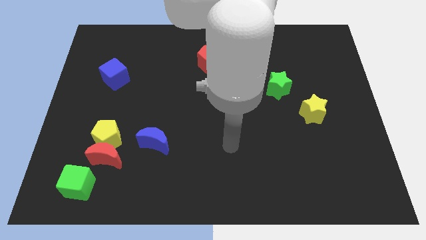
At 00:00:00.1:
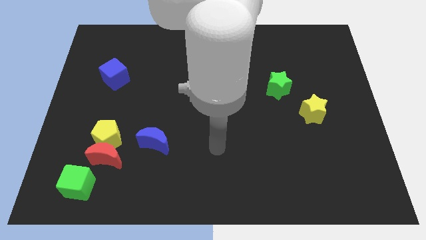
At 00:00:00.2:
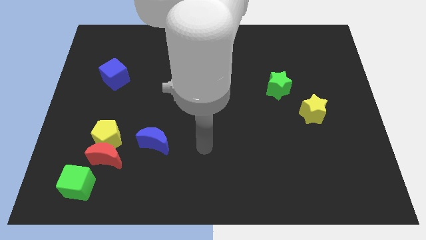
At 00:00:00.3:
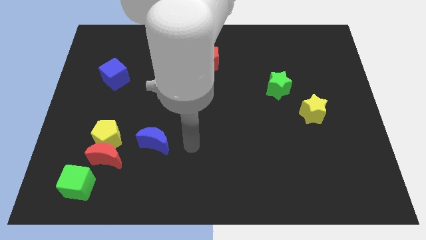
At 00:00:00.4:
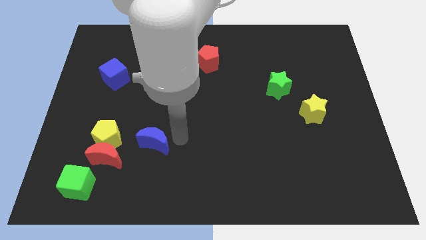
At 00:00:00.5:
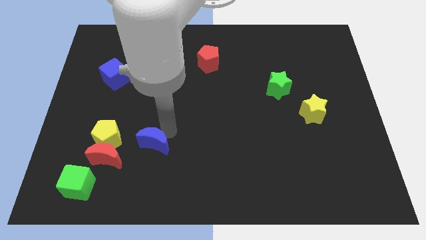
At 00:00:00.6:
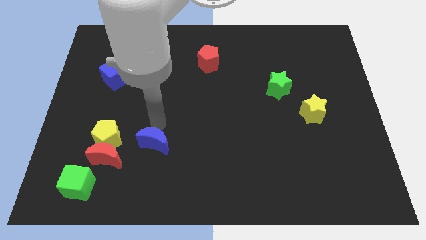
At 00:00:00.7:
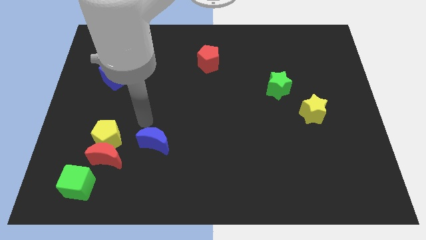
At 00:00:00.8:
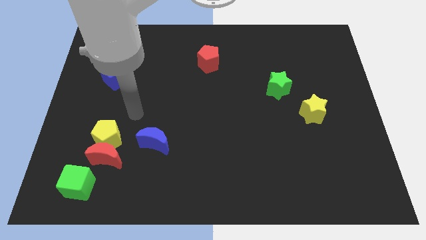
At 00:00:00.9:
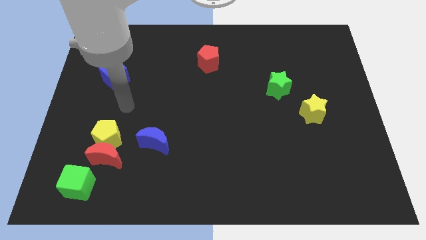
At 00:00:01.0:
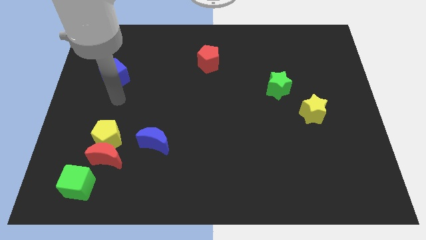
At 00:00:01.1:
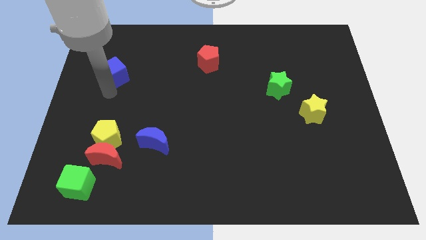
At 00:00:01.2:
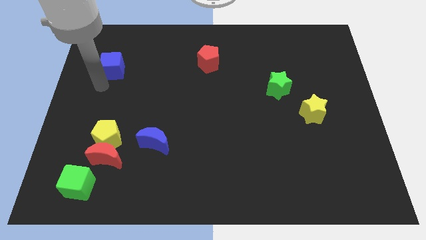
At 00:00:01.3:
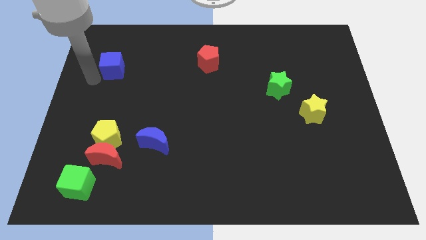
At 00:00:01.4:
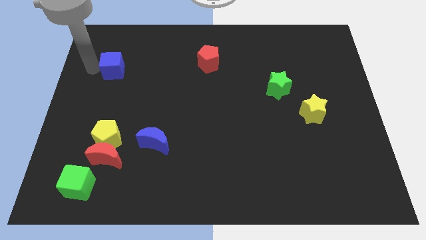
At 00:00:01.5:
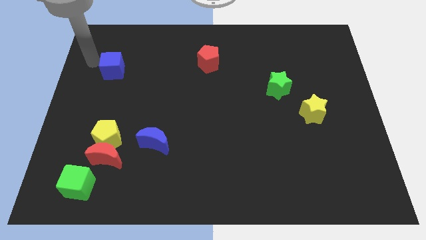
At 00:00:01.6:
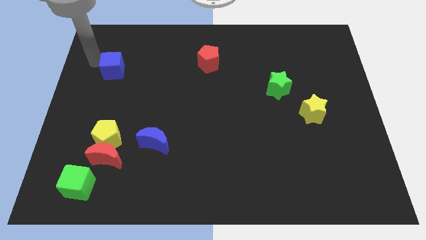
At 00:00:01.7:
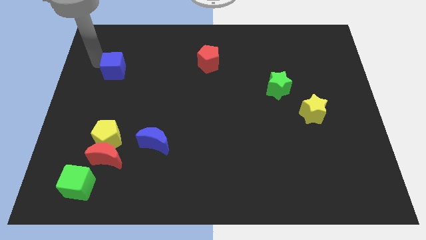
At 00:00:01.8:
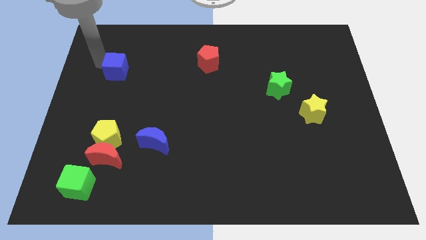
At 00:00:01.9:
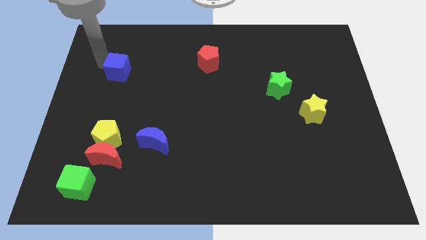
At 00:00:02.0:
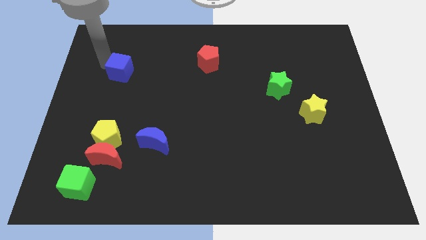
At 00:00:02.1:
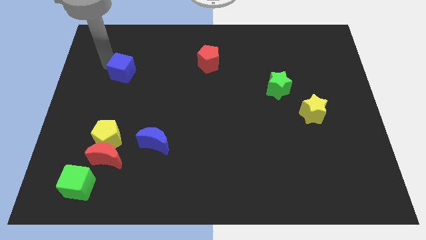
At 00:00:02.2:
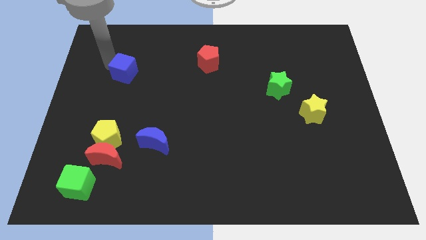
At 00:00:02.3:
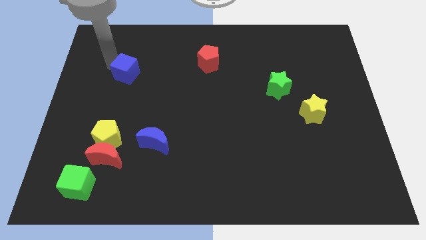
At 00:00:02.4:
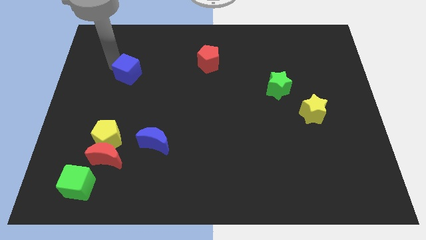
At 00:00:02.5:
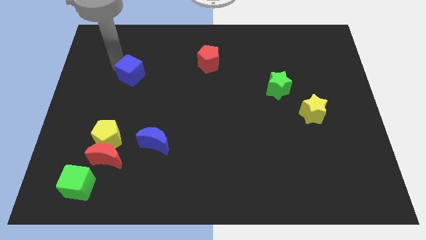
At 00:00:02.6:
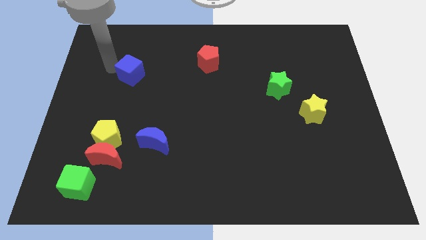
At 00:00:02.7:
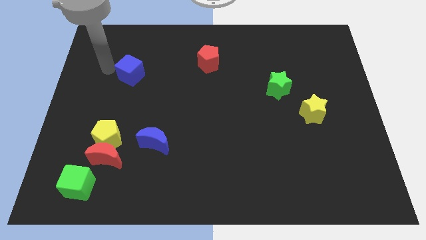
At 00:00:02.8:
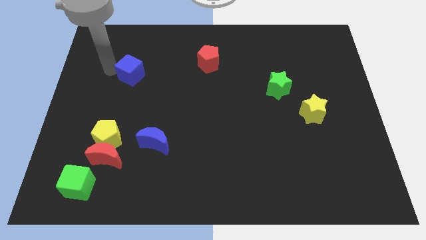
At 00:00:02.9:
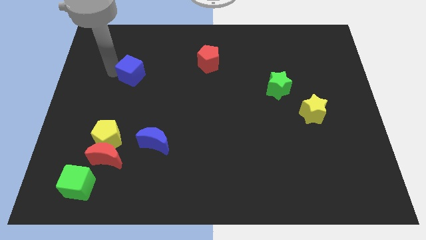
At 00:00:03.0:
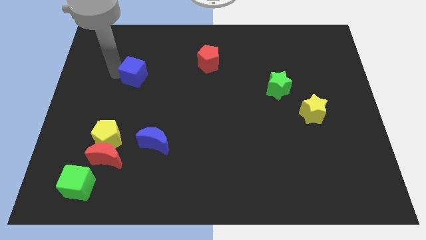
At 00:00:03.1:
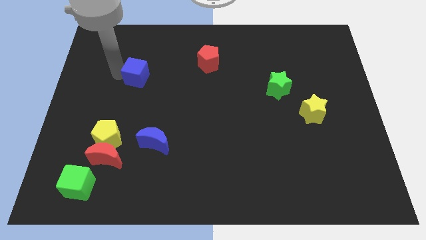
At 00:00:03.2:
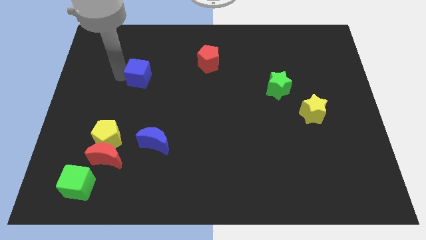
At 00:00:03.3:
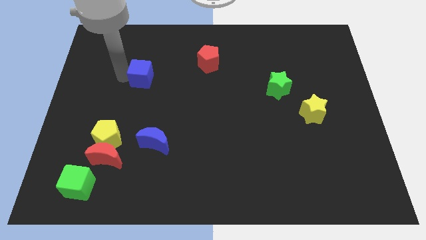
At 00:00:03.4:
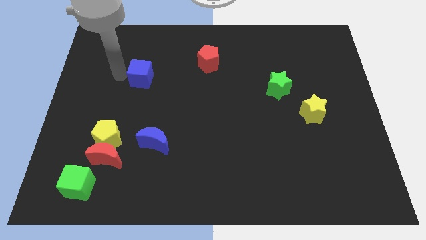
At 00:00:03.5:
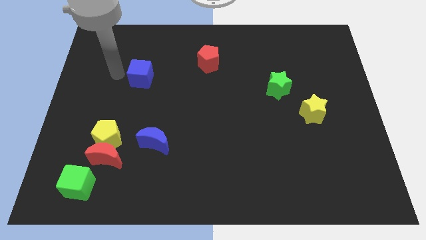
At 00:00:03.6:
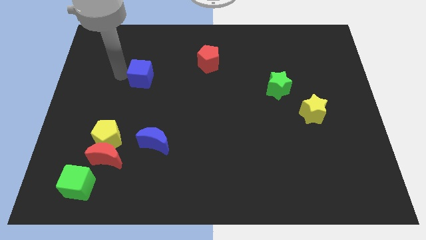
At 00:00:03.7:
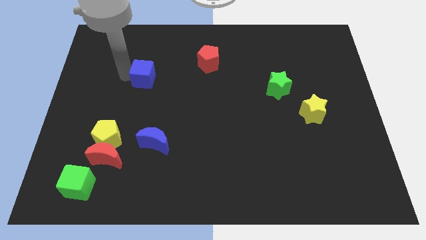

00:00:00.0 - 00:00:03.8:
push the blue cube a little bit to the right

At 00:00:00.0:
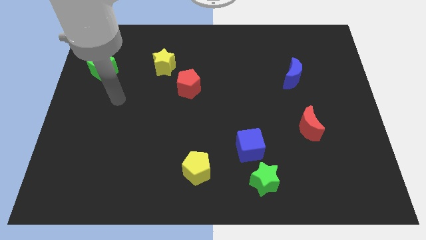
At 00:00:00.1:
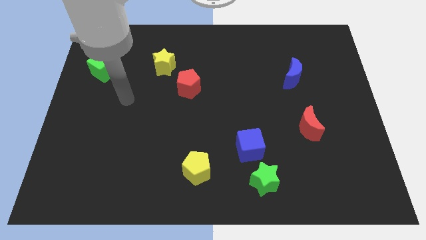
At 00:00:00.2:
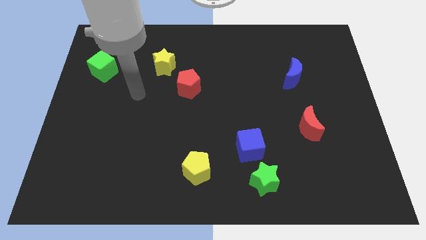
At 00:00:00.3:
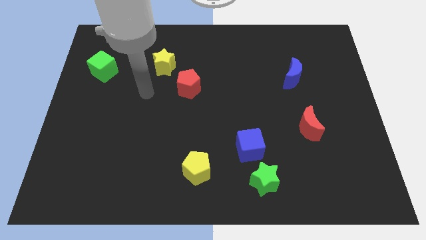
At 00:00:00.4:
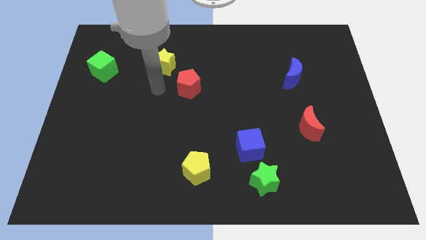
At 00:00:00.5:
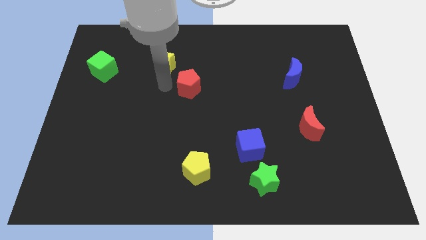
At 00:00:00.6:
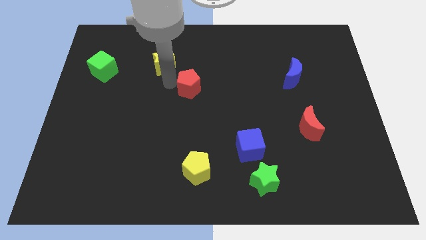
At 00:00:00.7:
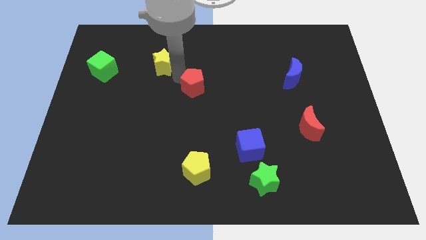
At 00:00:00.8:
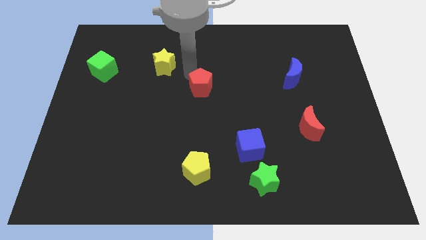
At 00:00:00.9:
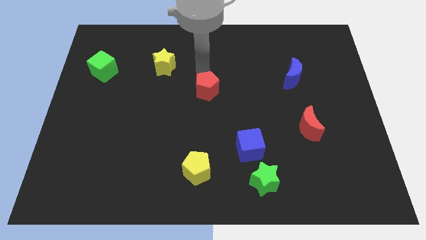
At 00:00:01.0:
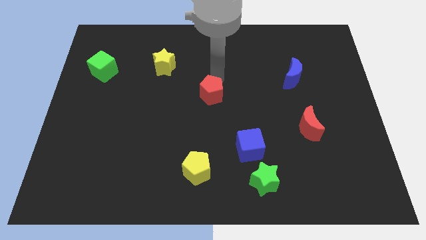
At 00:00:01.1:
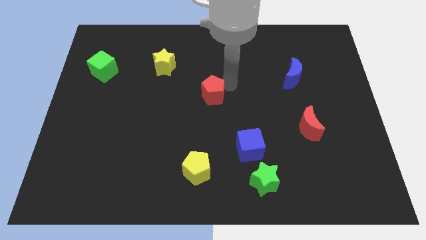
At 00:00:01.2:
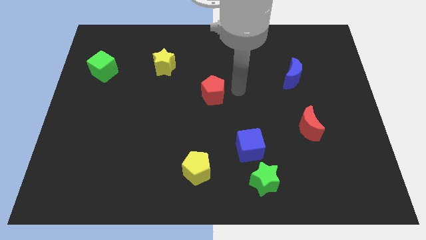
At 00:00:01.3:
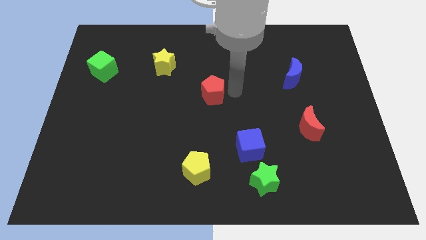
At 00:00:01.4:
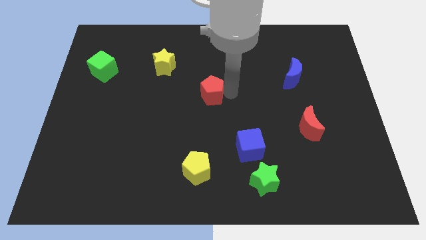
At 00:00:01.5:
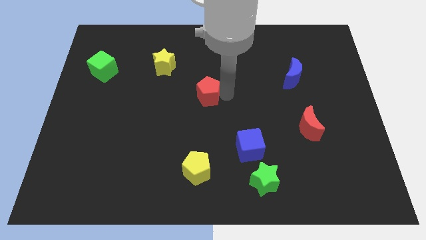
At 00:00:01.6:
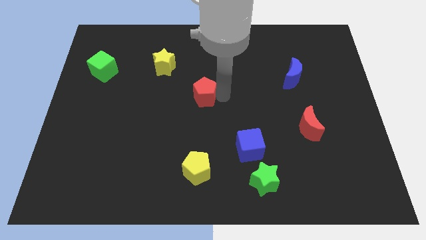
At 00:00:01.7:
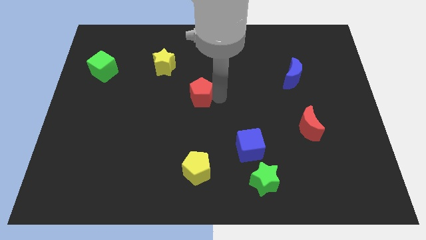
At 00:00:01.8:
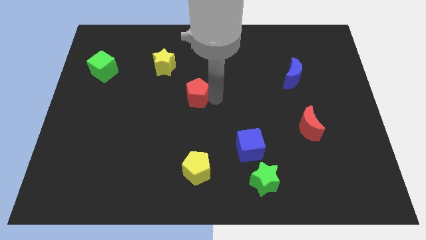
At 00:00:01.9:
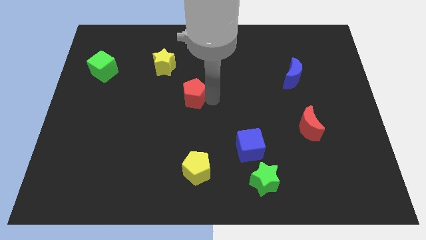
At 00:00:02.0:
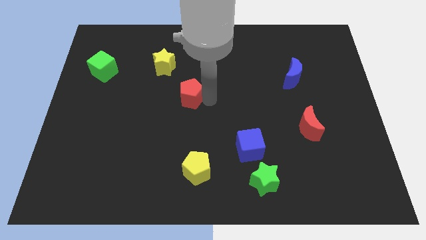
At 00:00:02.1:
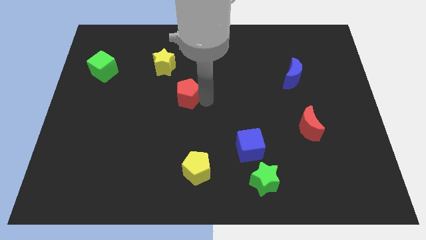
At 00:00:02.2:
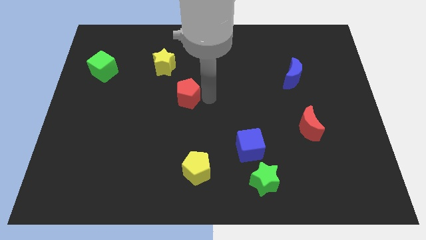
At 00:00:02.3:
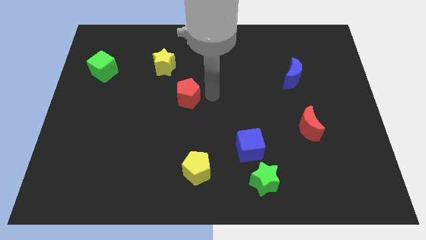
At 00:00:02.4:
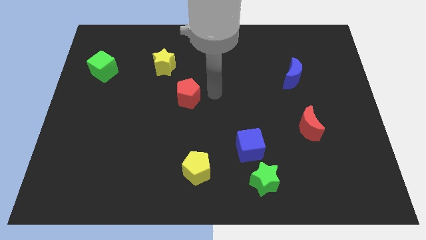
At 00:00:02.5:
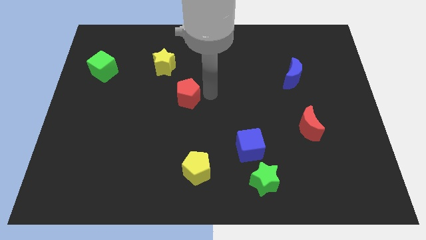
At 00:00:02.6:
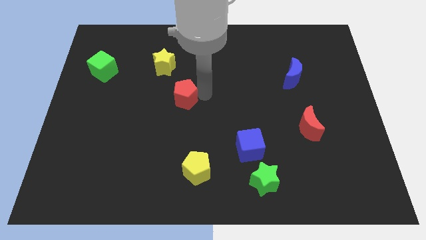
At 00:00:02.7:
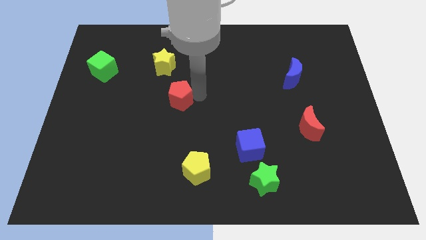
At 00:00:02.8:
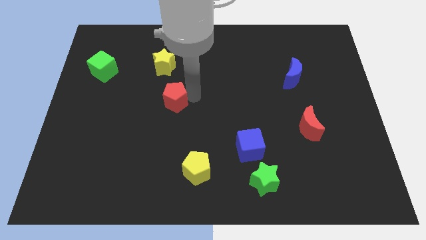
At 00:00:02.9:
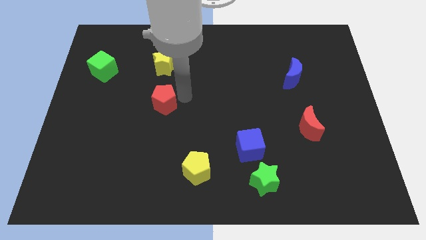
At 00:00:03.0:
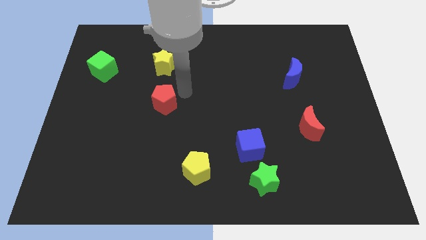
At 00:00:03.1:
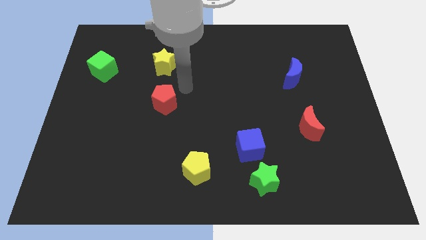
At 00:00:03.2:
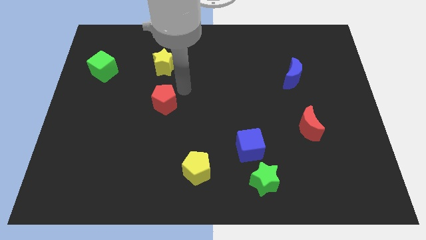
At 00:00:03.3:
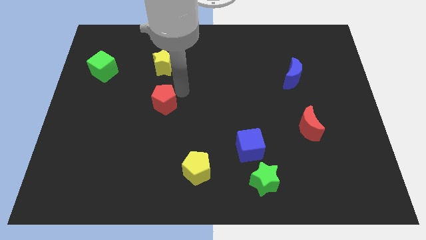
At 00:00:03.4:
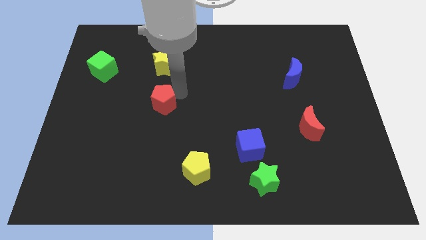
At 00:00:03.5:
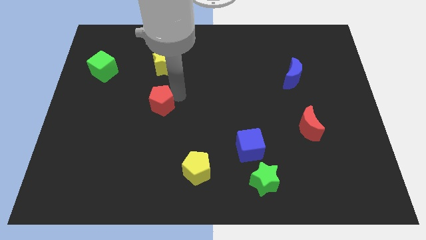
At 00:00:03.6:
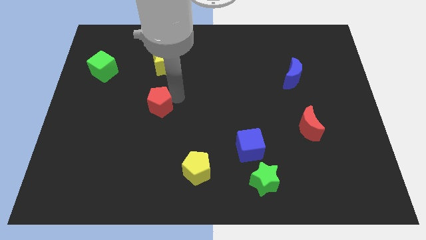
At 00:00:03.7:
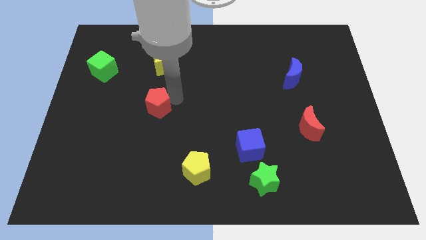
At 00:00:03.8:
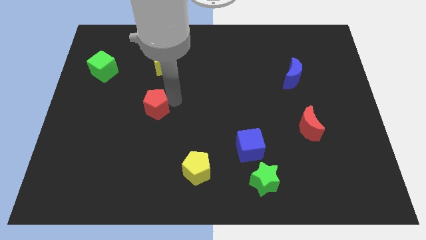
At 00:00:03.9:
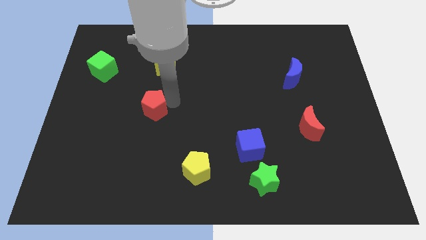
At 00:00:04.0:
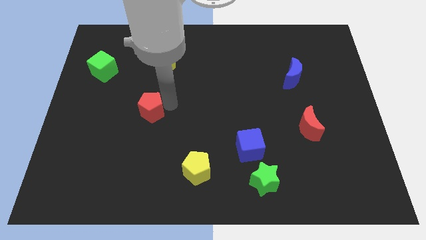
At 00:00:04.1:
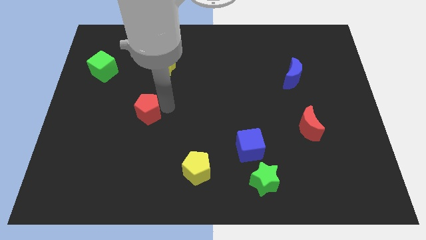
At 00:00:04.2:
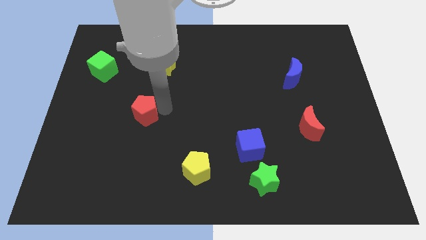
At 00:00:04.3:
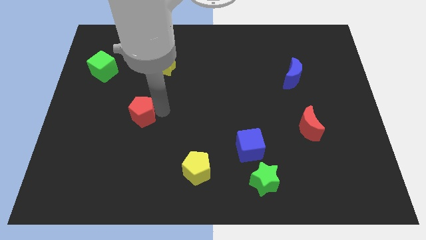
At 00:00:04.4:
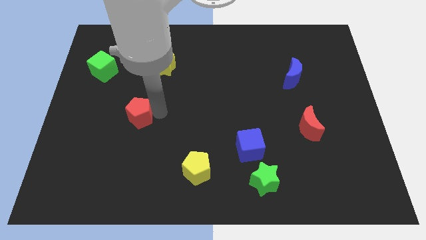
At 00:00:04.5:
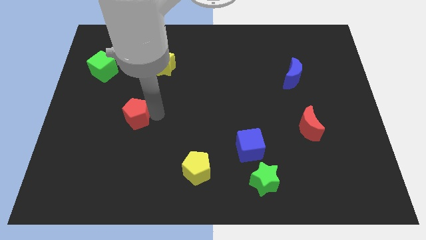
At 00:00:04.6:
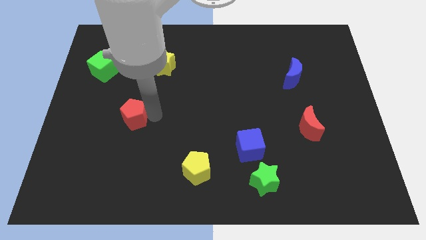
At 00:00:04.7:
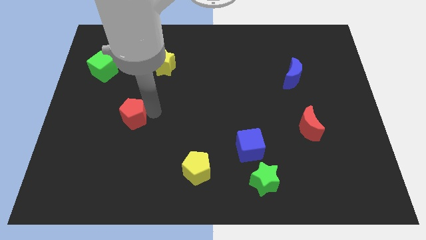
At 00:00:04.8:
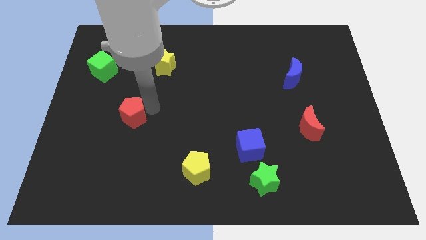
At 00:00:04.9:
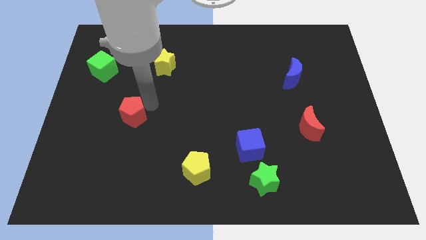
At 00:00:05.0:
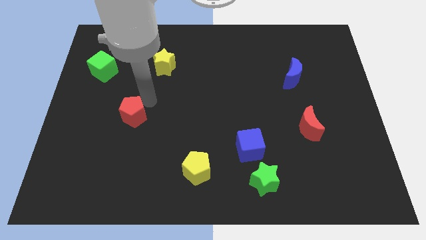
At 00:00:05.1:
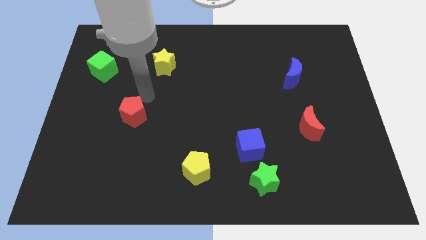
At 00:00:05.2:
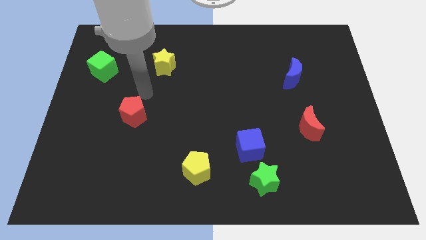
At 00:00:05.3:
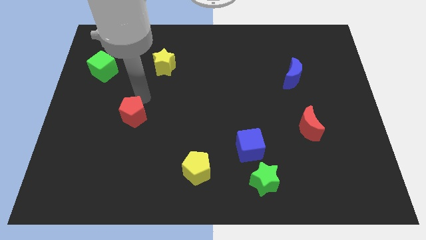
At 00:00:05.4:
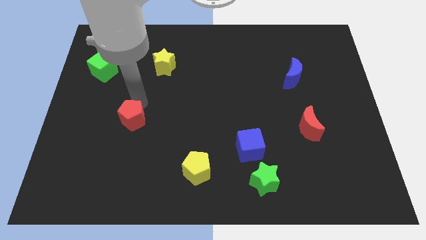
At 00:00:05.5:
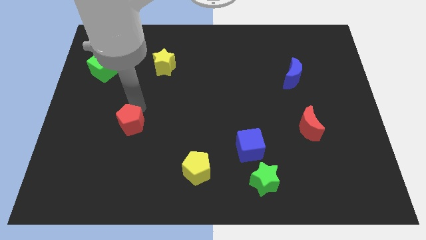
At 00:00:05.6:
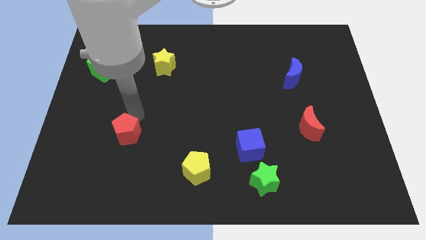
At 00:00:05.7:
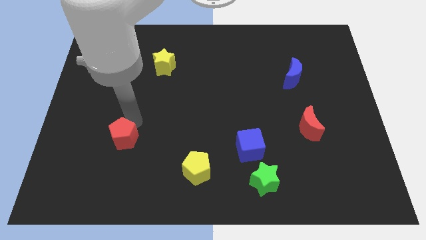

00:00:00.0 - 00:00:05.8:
slide the red pentagon down and left
